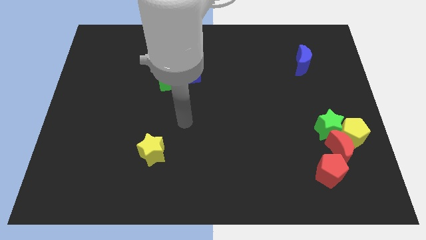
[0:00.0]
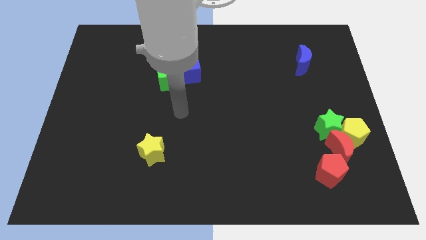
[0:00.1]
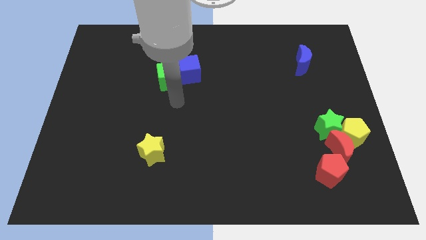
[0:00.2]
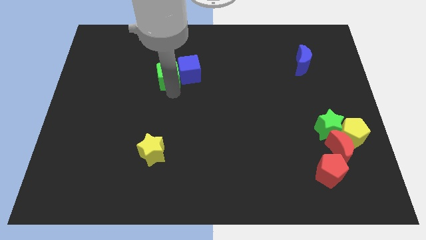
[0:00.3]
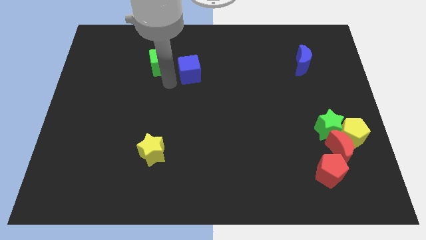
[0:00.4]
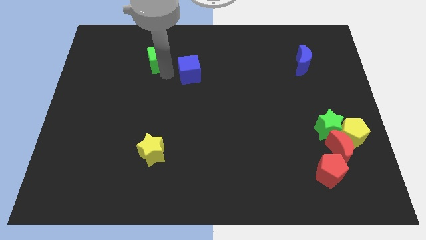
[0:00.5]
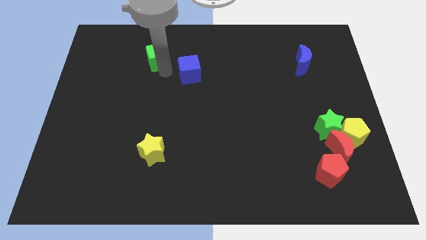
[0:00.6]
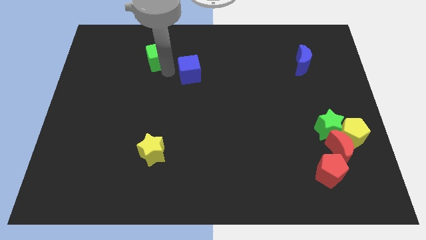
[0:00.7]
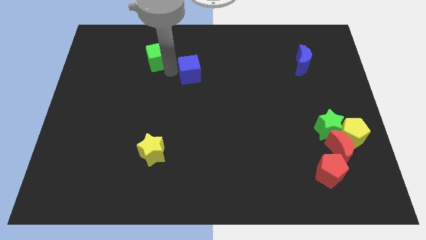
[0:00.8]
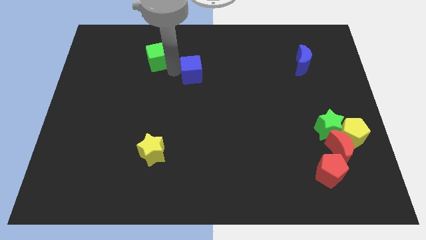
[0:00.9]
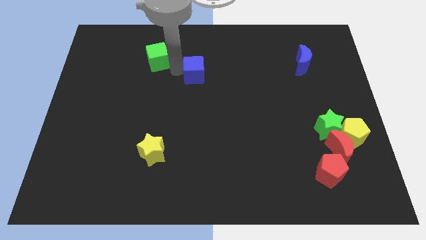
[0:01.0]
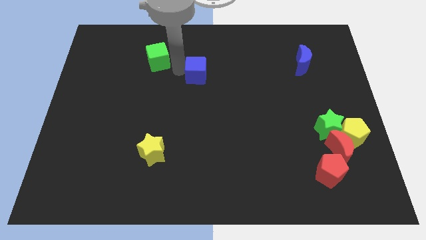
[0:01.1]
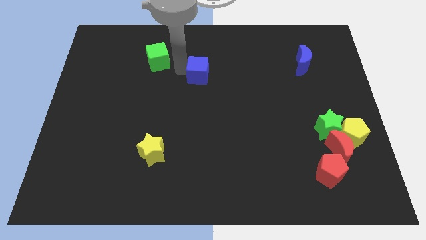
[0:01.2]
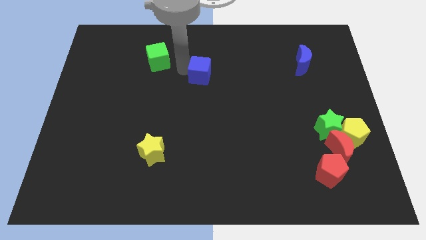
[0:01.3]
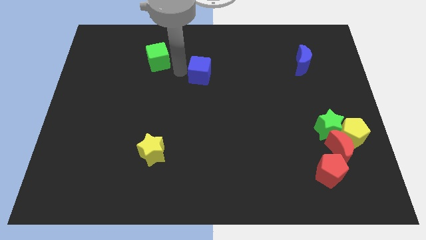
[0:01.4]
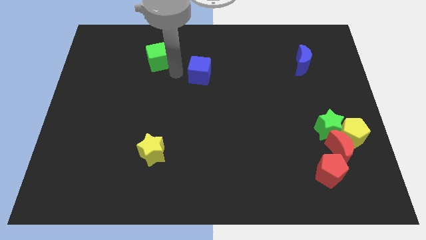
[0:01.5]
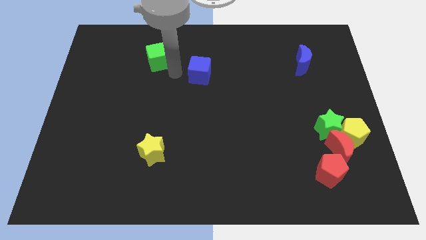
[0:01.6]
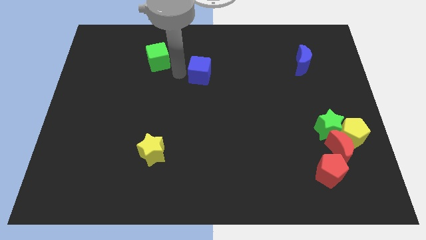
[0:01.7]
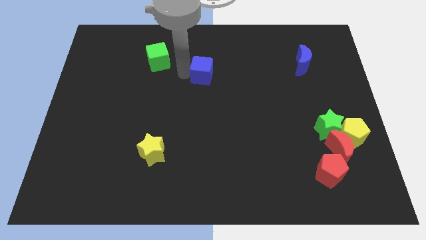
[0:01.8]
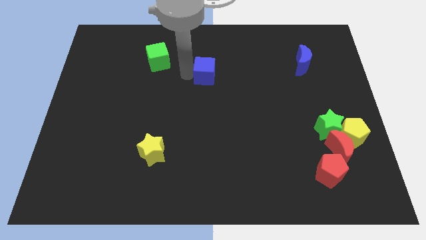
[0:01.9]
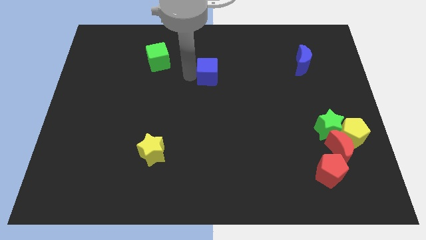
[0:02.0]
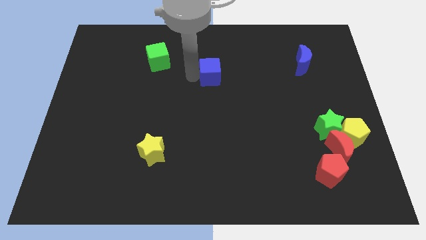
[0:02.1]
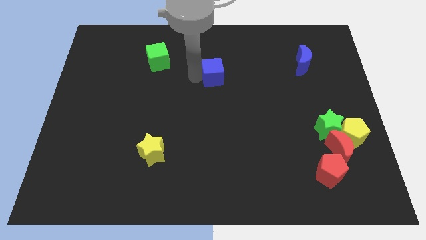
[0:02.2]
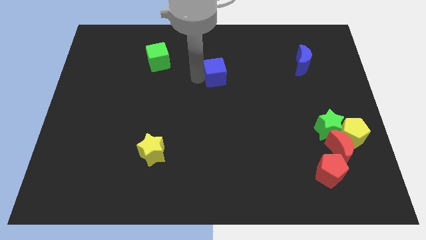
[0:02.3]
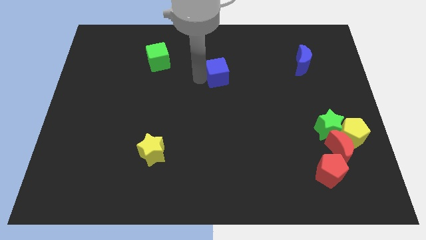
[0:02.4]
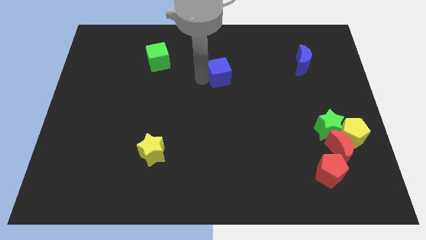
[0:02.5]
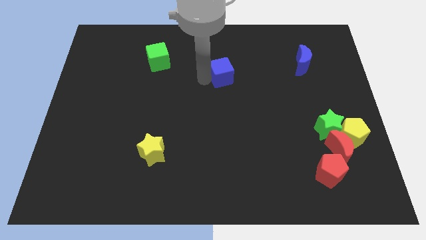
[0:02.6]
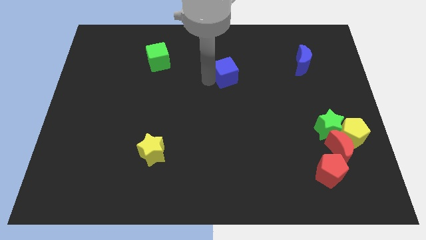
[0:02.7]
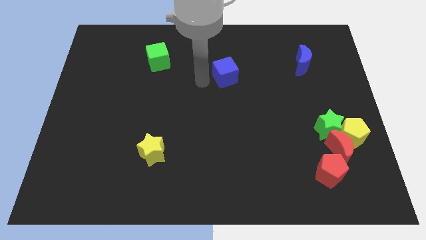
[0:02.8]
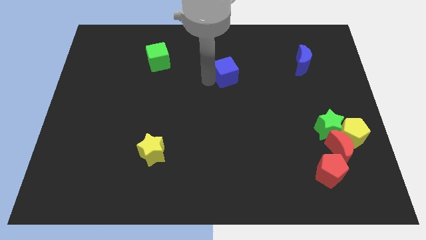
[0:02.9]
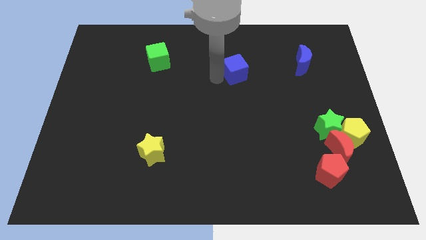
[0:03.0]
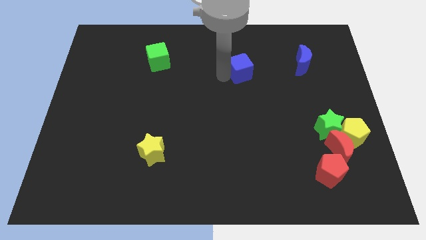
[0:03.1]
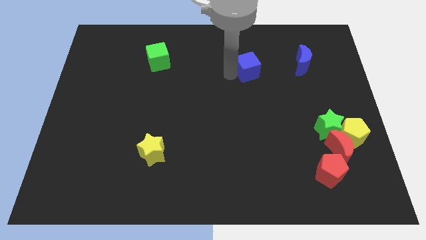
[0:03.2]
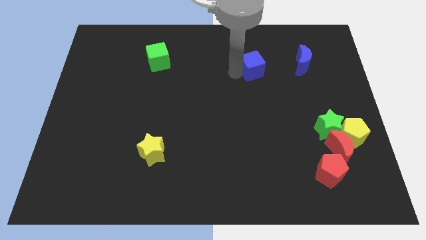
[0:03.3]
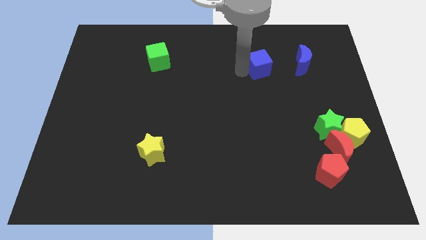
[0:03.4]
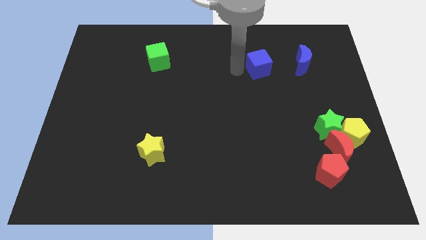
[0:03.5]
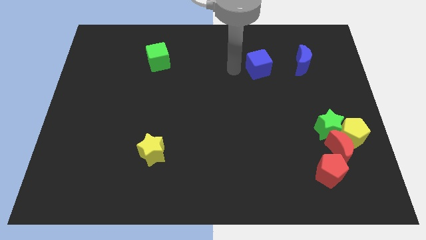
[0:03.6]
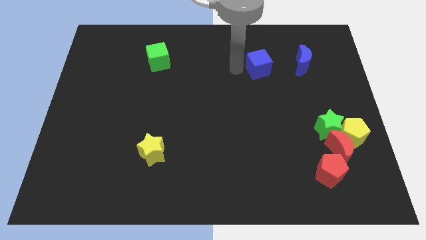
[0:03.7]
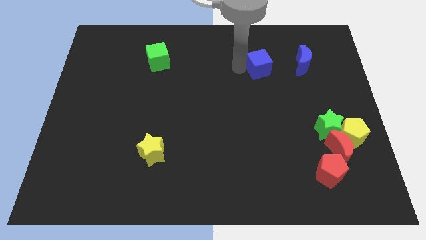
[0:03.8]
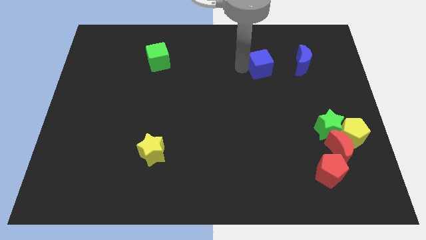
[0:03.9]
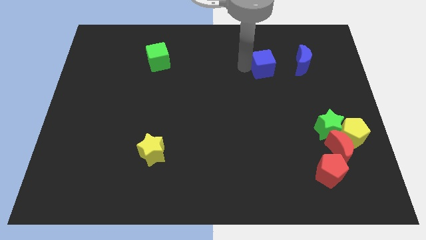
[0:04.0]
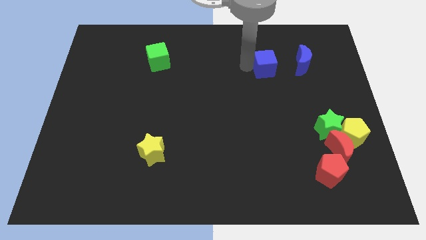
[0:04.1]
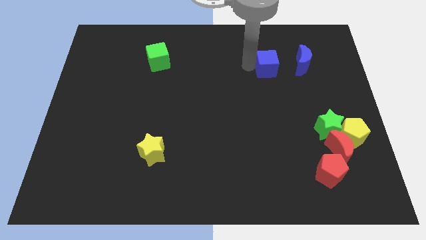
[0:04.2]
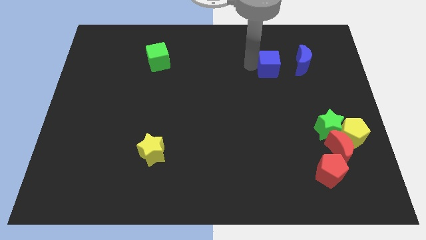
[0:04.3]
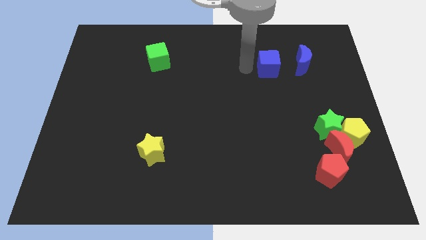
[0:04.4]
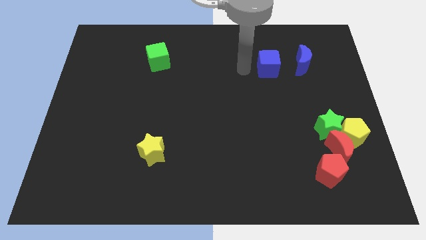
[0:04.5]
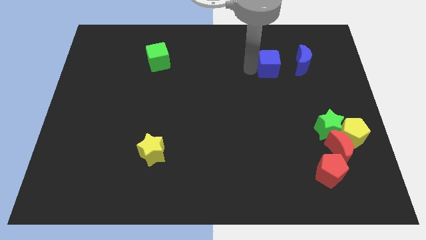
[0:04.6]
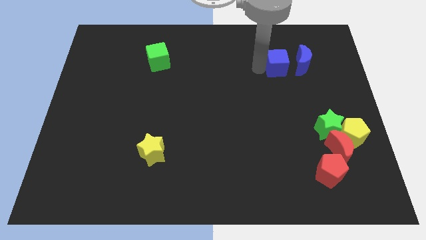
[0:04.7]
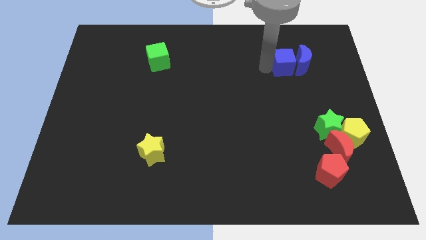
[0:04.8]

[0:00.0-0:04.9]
move the blue cube next to the blue moon

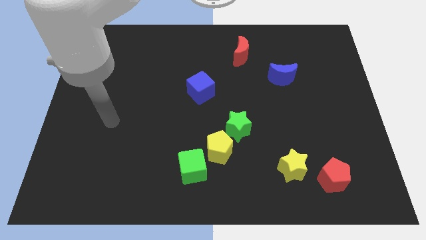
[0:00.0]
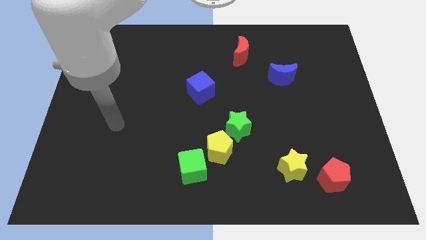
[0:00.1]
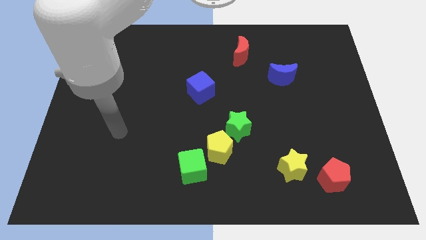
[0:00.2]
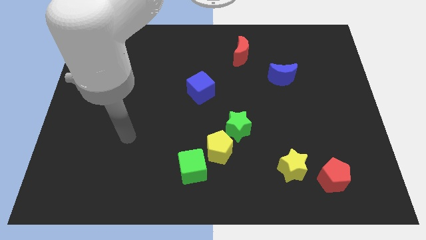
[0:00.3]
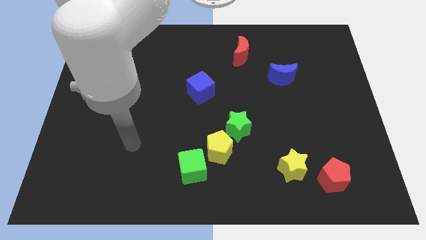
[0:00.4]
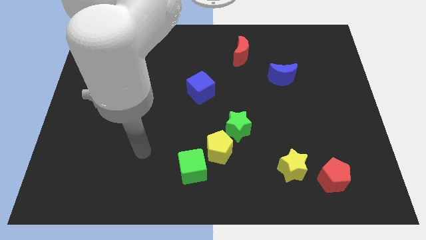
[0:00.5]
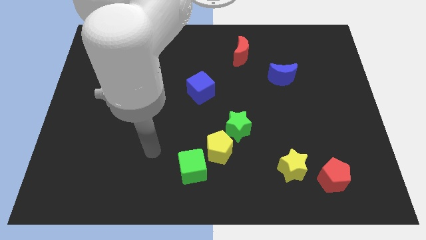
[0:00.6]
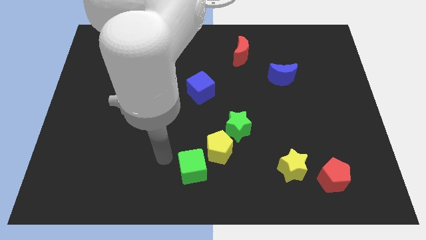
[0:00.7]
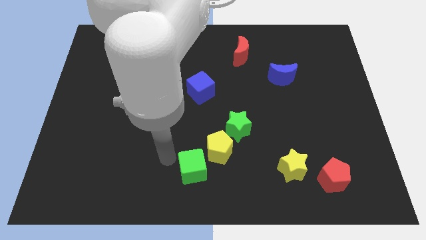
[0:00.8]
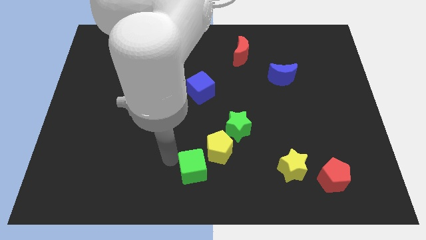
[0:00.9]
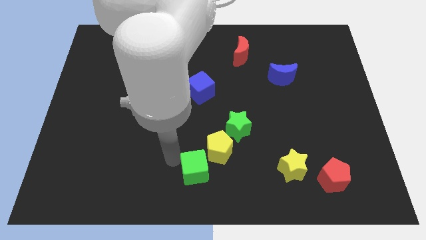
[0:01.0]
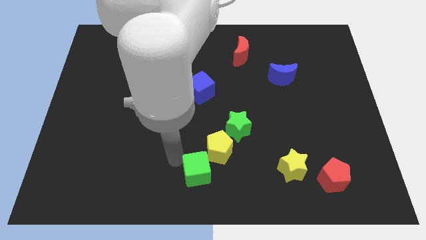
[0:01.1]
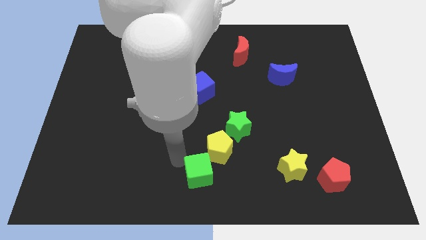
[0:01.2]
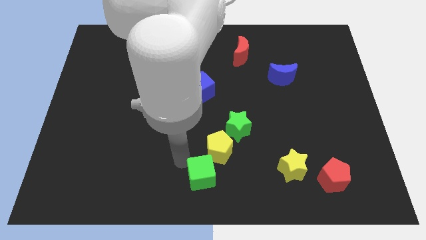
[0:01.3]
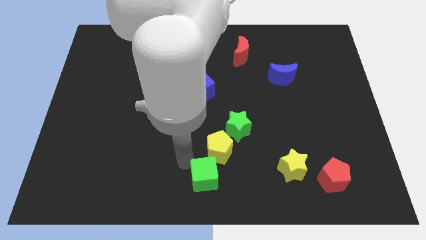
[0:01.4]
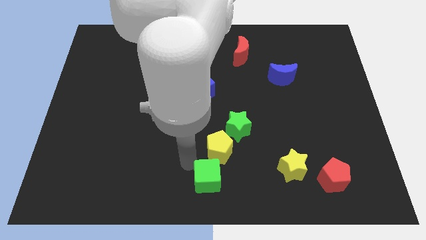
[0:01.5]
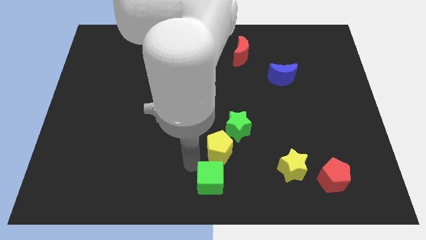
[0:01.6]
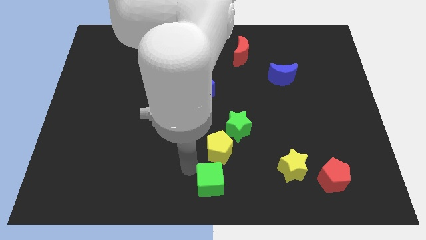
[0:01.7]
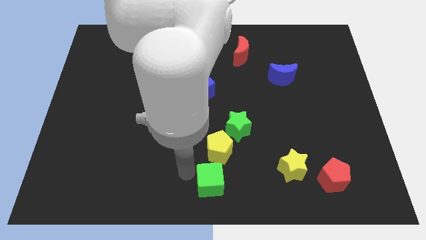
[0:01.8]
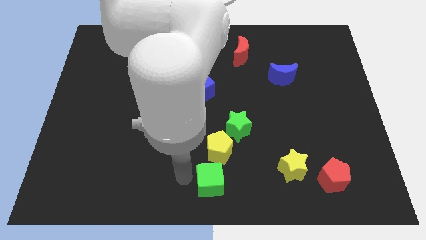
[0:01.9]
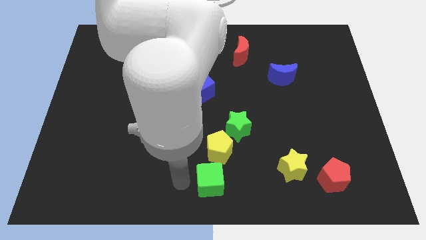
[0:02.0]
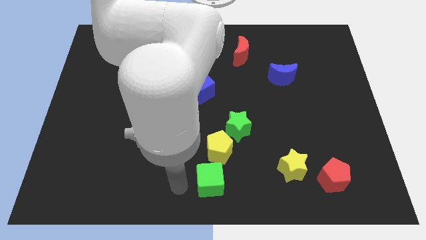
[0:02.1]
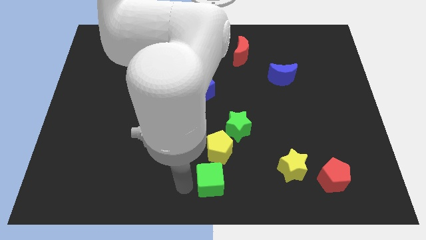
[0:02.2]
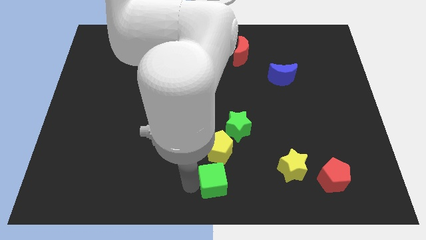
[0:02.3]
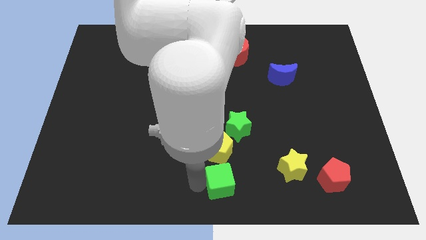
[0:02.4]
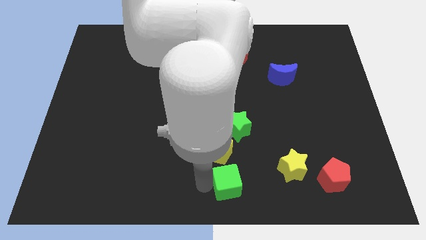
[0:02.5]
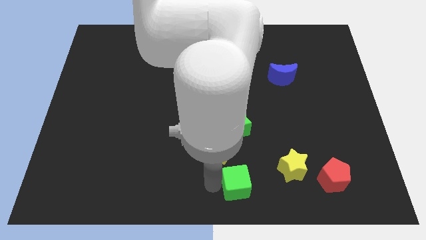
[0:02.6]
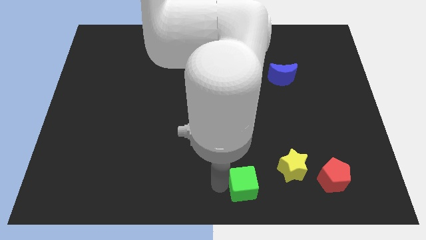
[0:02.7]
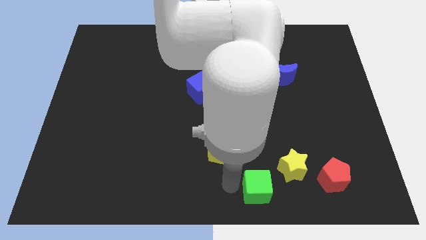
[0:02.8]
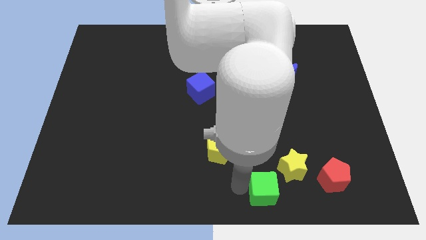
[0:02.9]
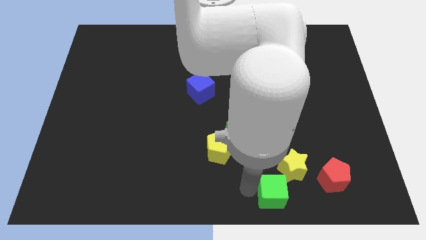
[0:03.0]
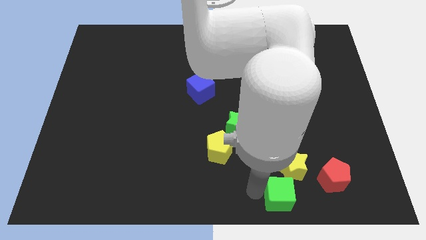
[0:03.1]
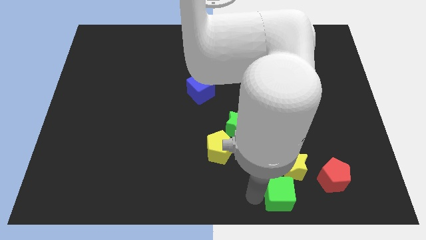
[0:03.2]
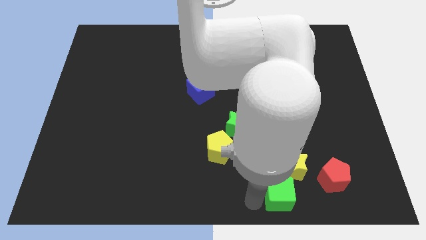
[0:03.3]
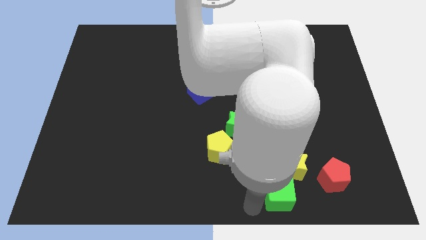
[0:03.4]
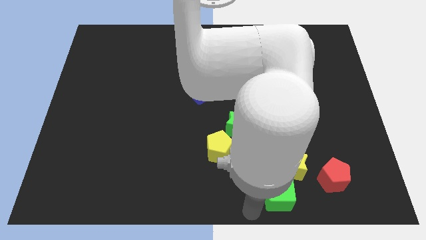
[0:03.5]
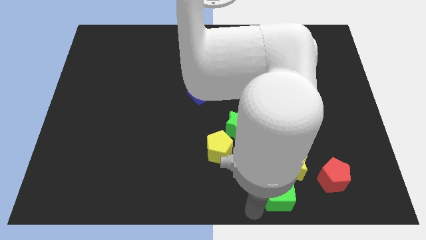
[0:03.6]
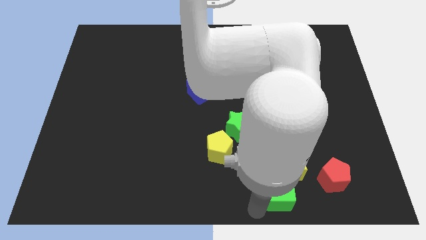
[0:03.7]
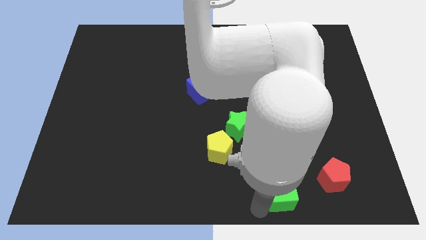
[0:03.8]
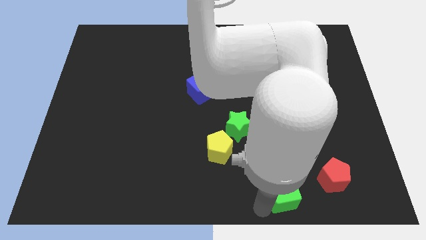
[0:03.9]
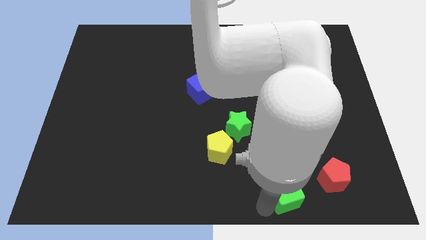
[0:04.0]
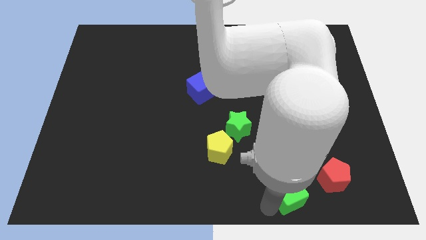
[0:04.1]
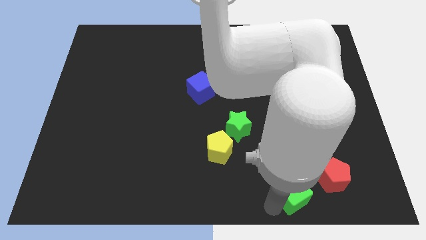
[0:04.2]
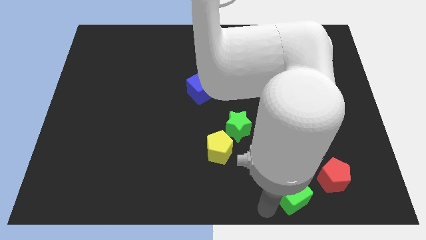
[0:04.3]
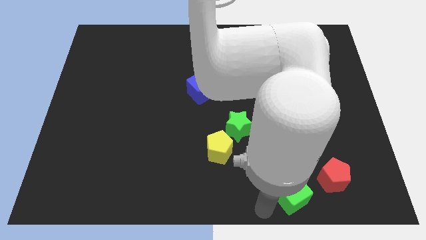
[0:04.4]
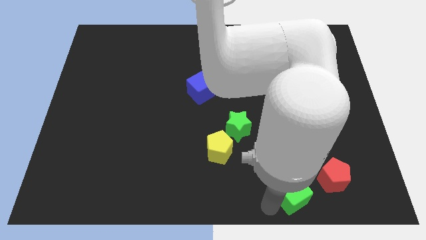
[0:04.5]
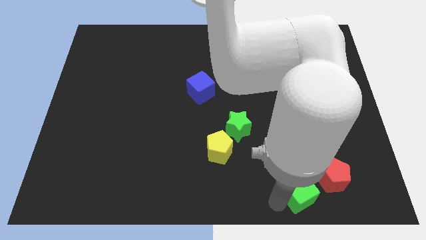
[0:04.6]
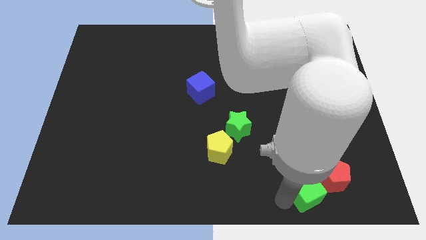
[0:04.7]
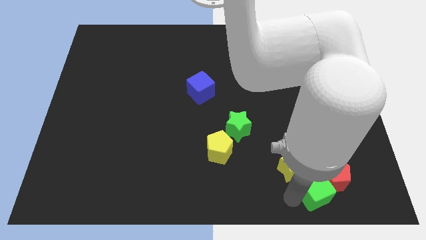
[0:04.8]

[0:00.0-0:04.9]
put the green cube next to the red pentagon
